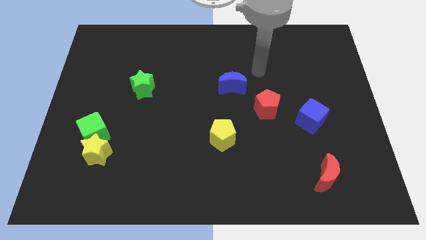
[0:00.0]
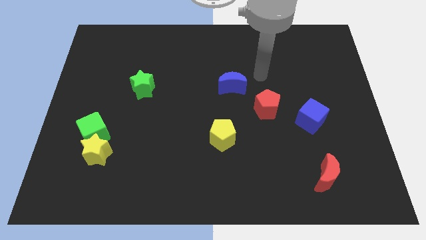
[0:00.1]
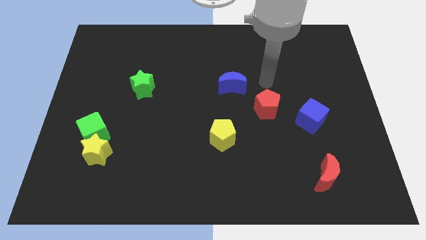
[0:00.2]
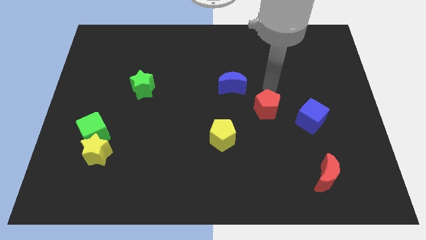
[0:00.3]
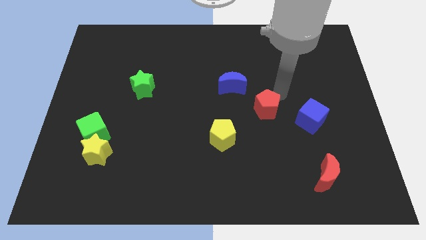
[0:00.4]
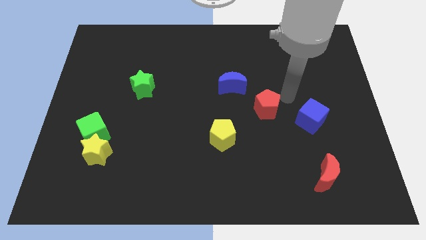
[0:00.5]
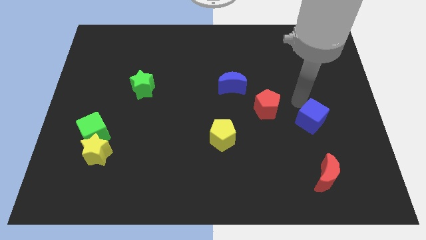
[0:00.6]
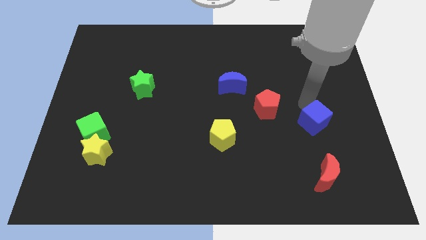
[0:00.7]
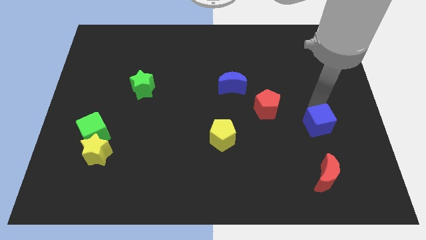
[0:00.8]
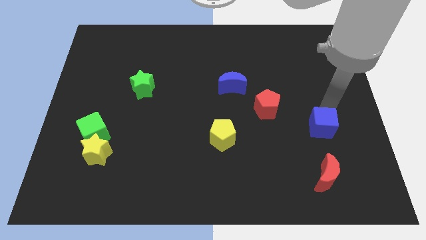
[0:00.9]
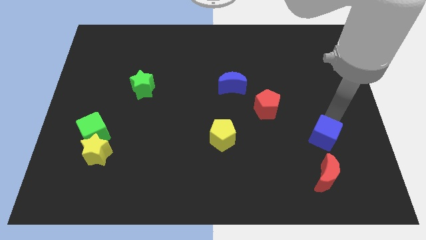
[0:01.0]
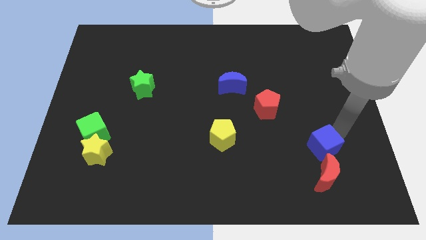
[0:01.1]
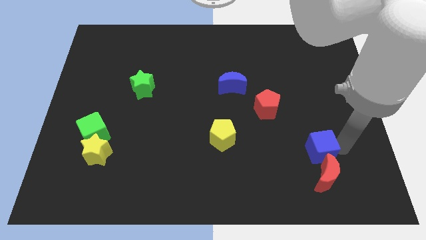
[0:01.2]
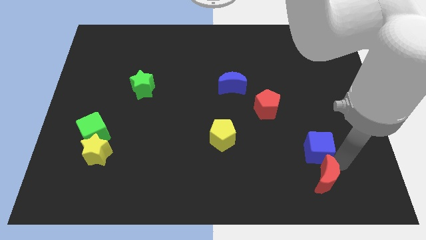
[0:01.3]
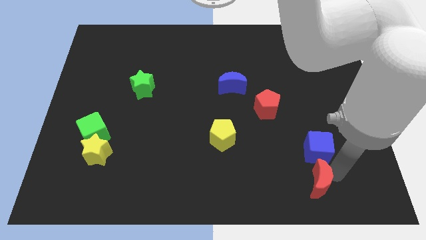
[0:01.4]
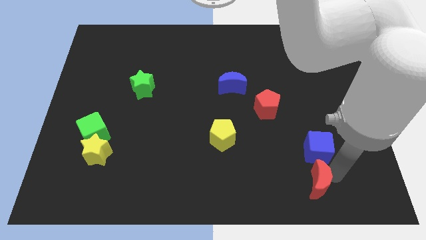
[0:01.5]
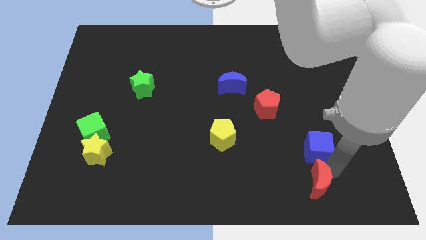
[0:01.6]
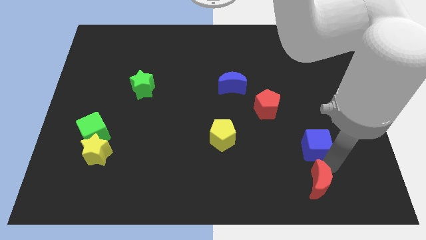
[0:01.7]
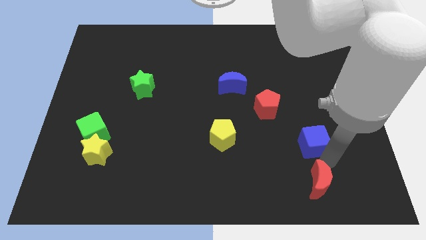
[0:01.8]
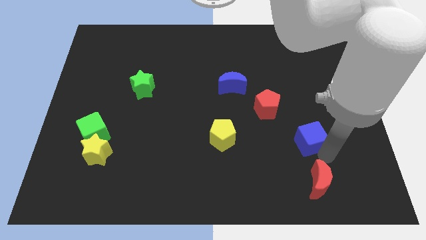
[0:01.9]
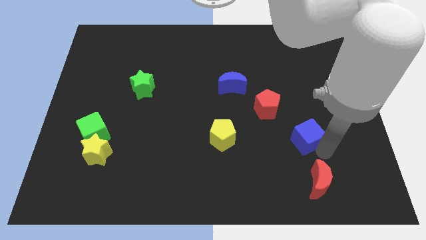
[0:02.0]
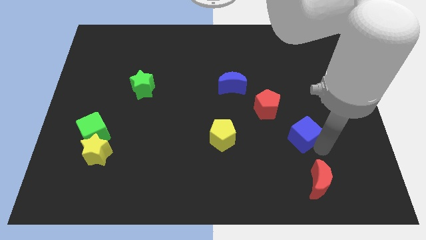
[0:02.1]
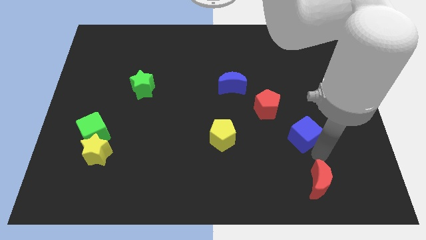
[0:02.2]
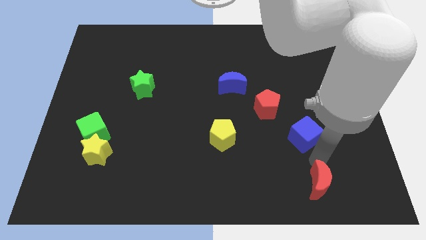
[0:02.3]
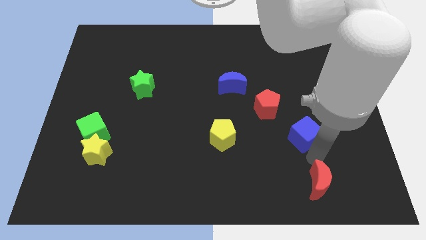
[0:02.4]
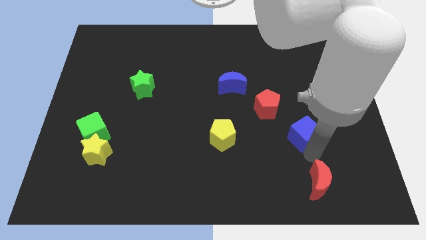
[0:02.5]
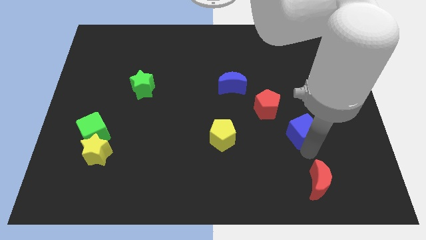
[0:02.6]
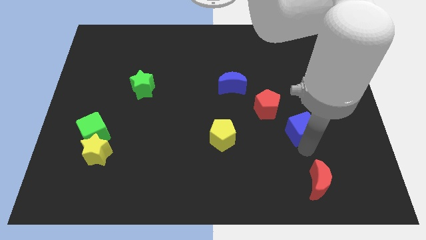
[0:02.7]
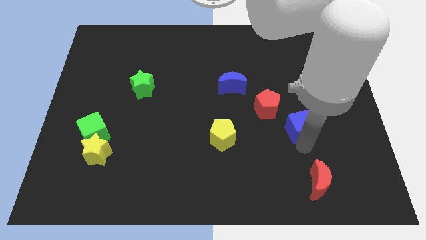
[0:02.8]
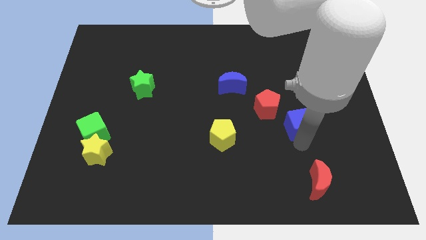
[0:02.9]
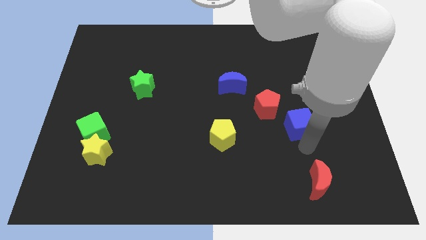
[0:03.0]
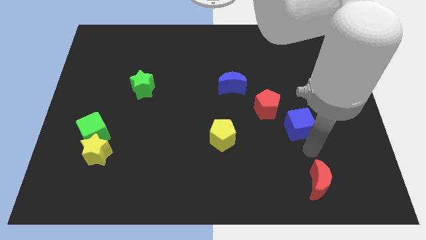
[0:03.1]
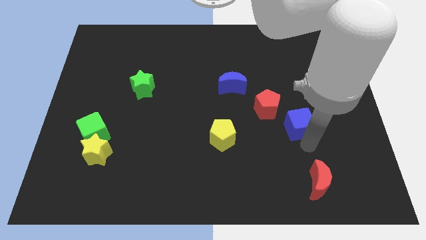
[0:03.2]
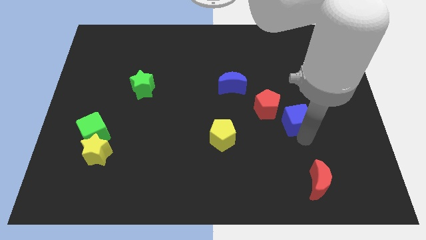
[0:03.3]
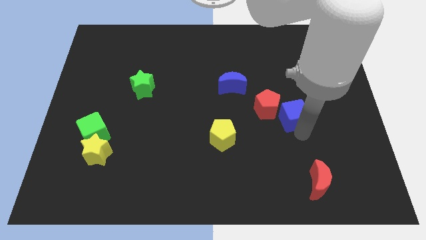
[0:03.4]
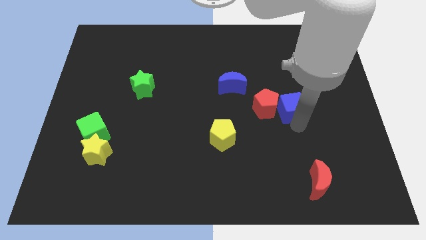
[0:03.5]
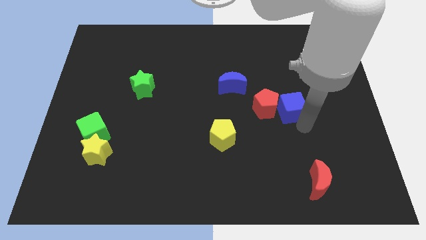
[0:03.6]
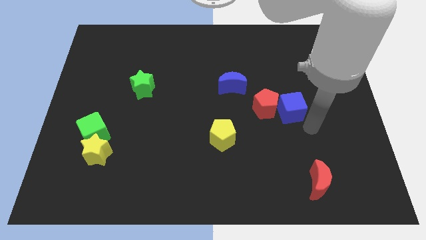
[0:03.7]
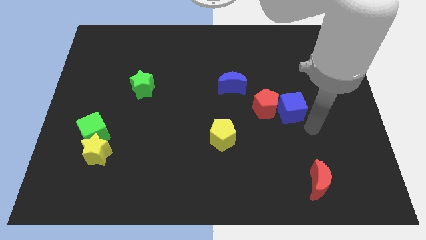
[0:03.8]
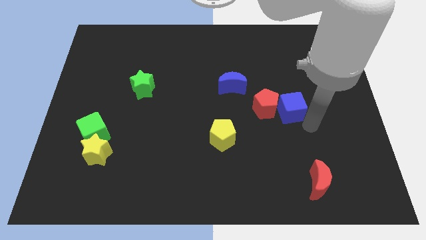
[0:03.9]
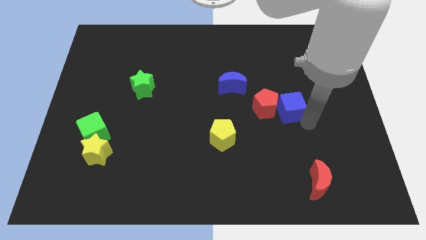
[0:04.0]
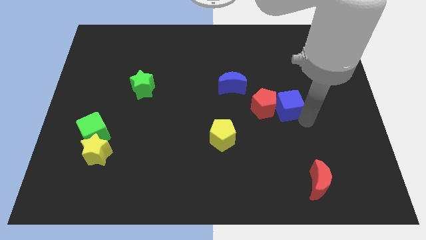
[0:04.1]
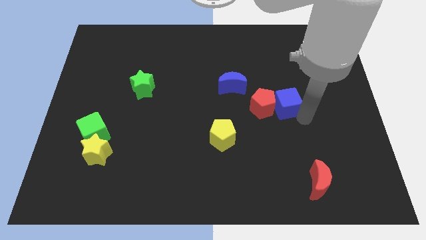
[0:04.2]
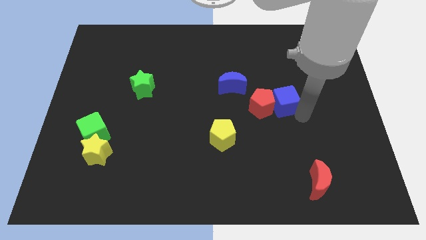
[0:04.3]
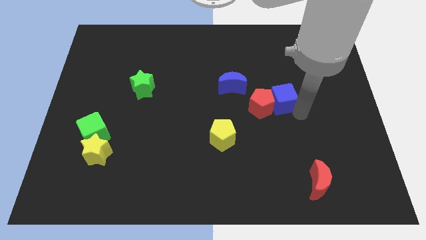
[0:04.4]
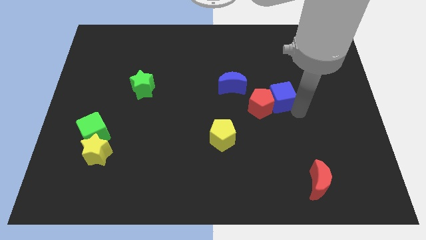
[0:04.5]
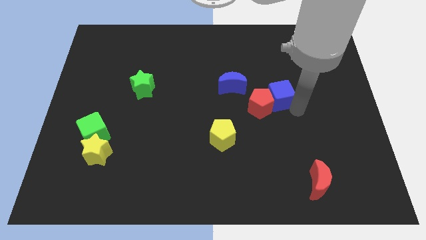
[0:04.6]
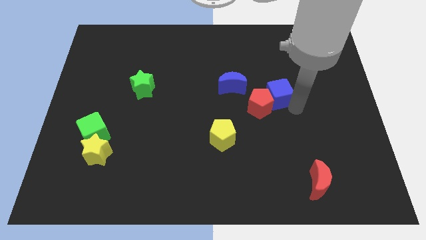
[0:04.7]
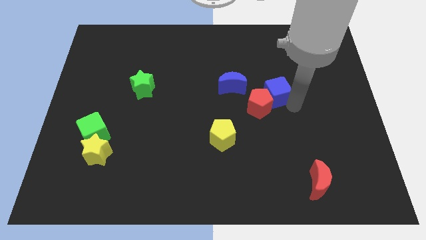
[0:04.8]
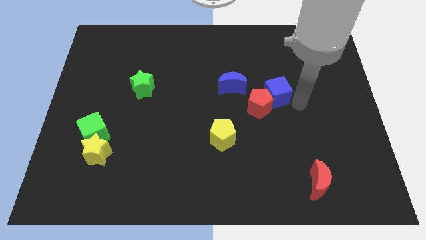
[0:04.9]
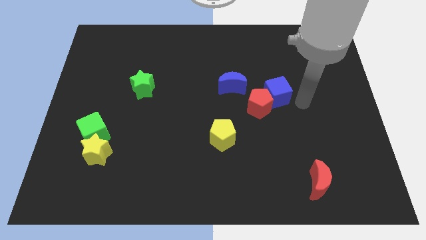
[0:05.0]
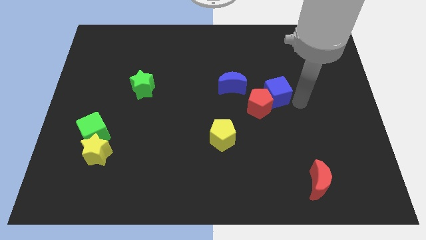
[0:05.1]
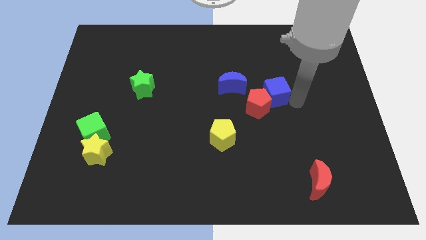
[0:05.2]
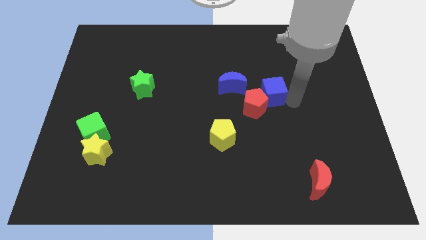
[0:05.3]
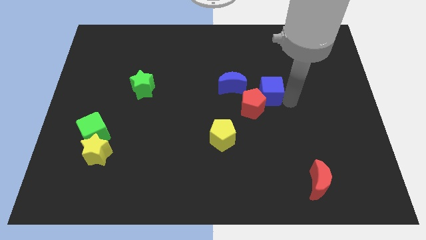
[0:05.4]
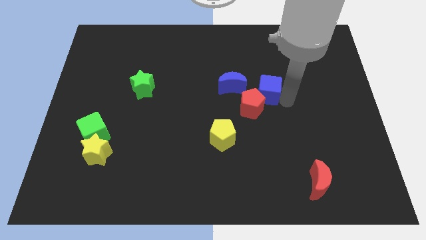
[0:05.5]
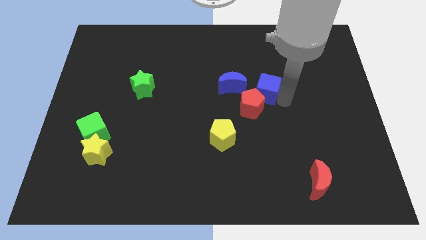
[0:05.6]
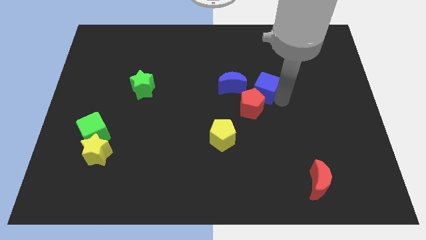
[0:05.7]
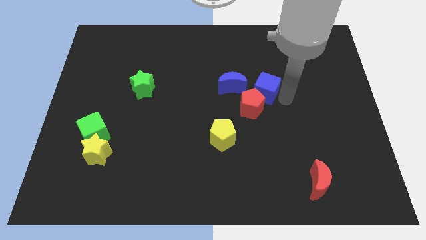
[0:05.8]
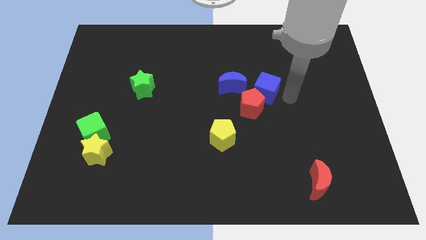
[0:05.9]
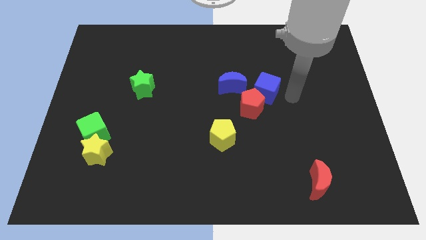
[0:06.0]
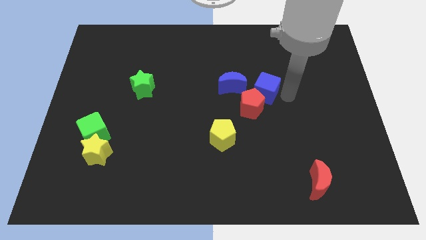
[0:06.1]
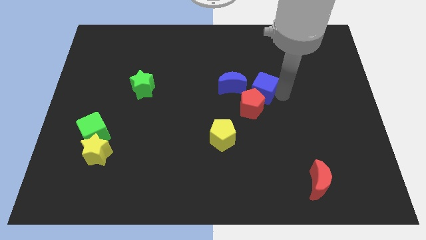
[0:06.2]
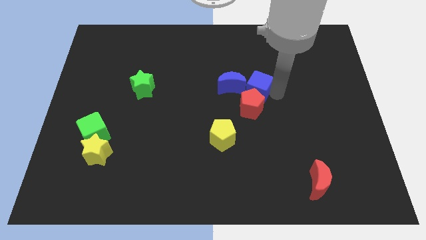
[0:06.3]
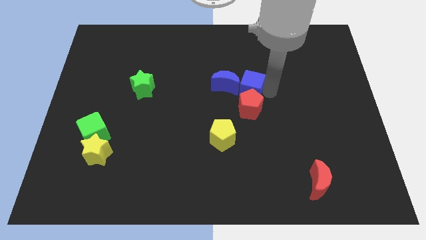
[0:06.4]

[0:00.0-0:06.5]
push the blue cube to the blue moon
